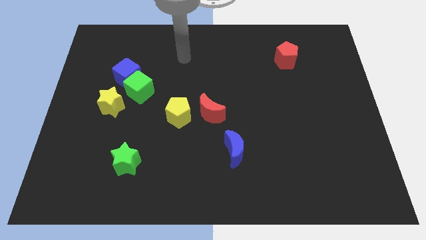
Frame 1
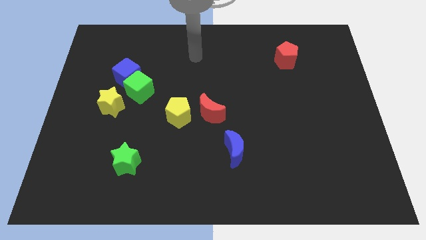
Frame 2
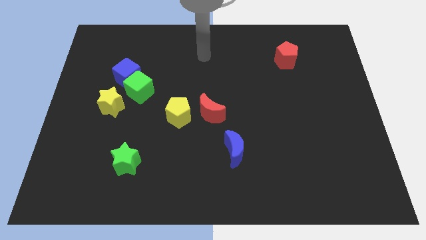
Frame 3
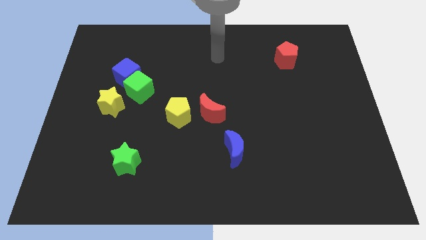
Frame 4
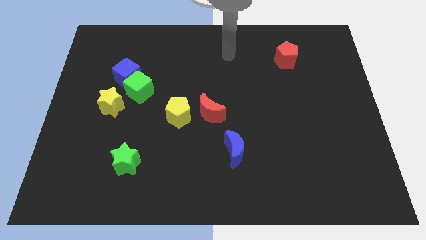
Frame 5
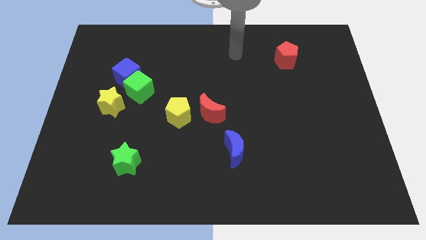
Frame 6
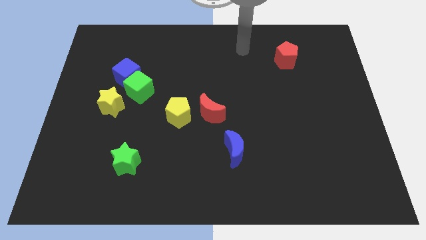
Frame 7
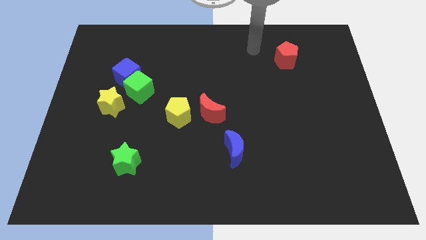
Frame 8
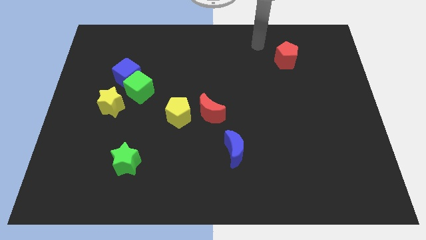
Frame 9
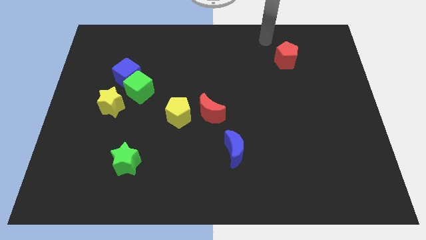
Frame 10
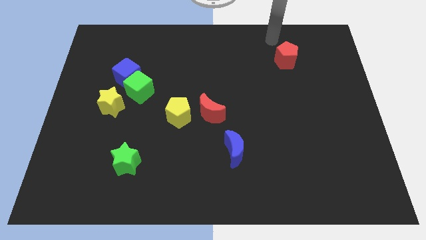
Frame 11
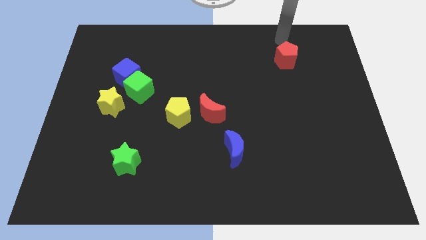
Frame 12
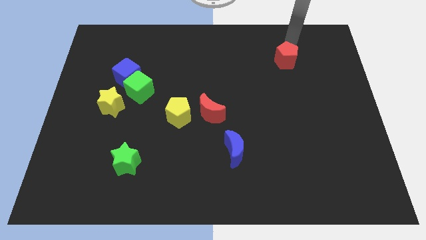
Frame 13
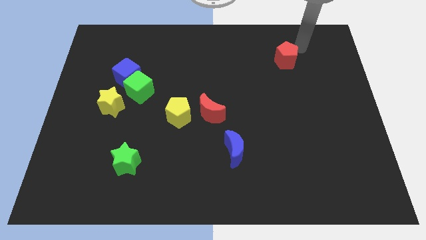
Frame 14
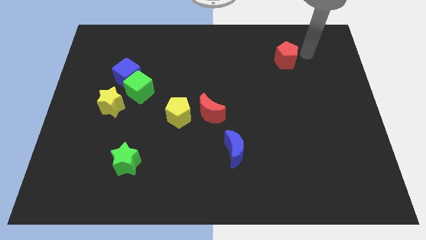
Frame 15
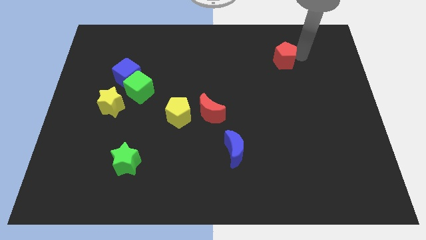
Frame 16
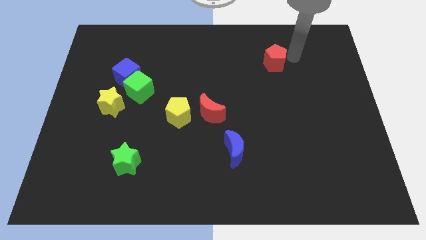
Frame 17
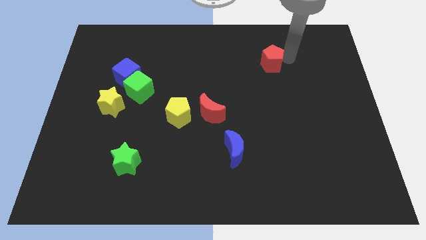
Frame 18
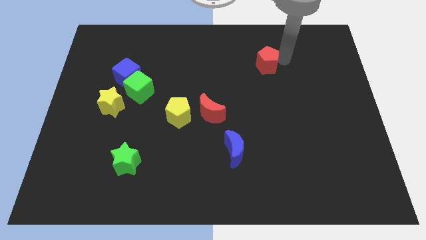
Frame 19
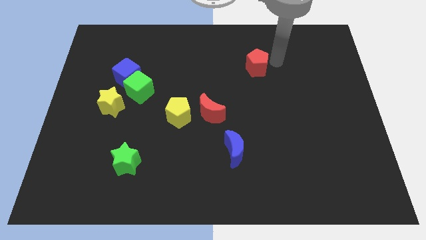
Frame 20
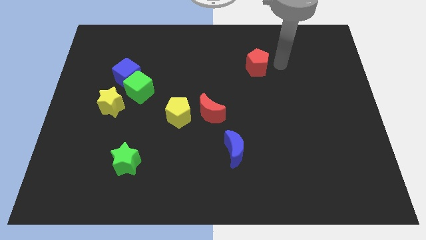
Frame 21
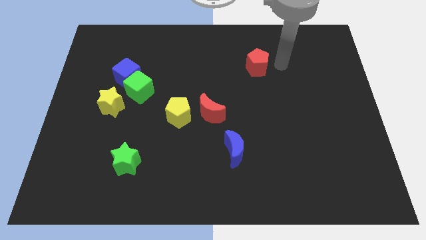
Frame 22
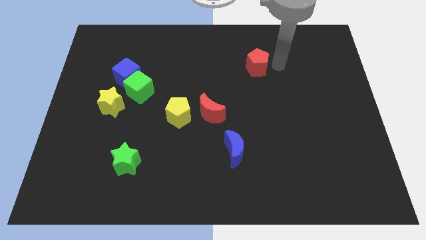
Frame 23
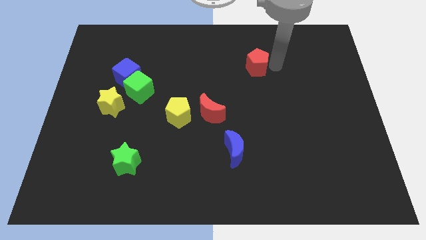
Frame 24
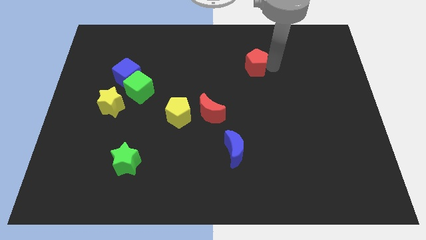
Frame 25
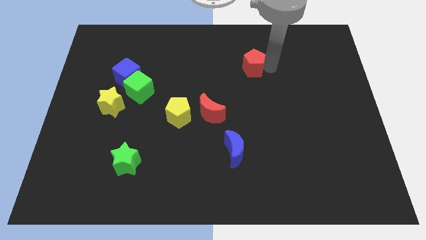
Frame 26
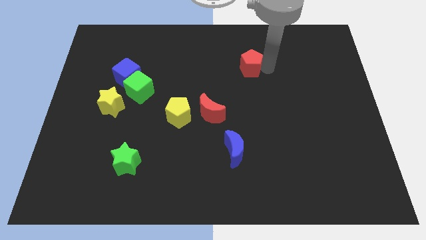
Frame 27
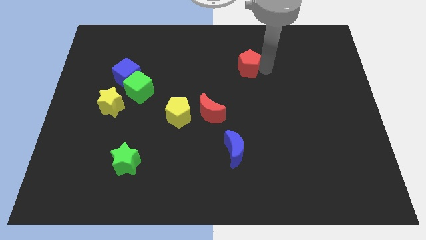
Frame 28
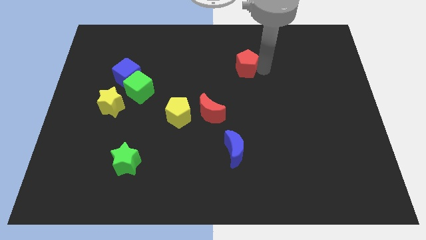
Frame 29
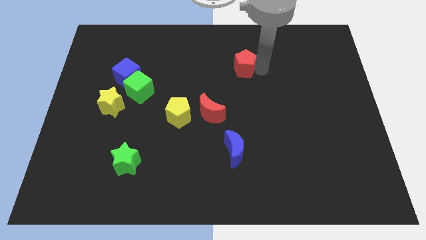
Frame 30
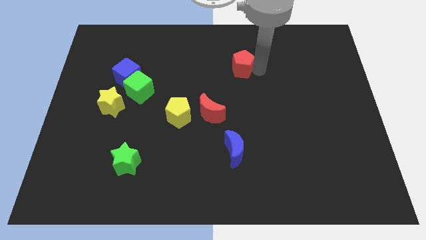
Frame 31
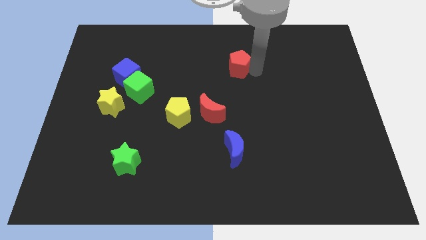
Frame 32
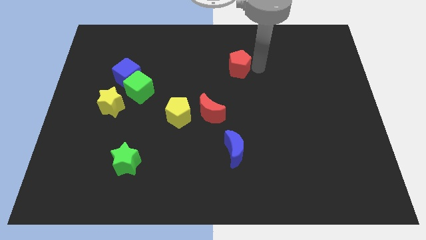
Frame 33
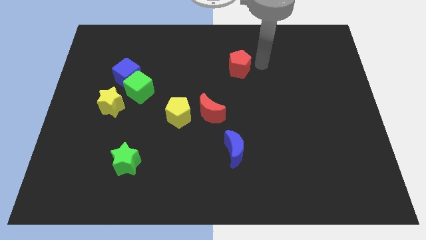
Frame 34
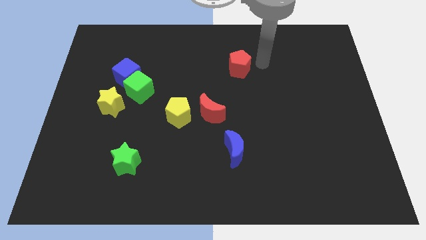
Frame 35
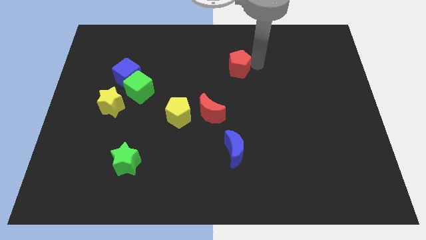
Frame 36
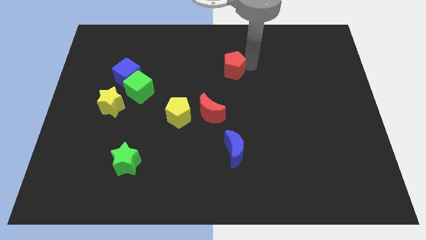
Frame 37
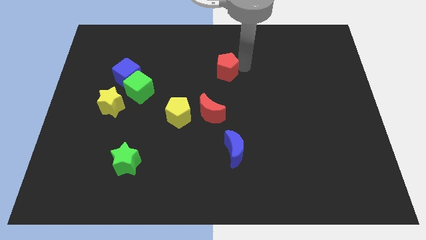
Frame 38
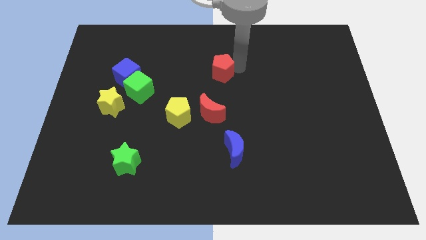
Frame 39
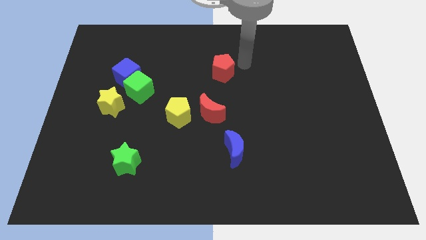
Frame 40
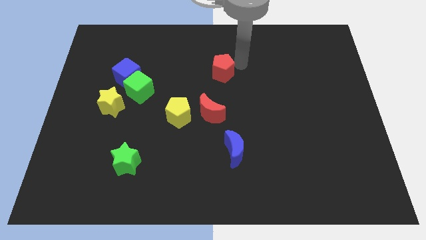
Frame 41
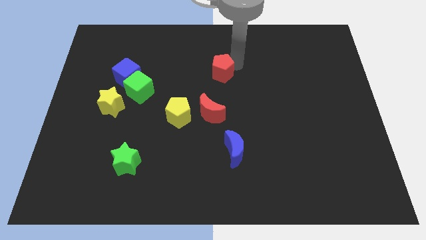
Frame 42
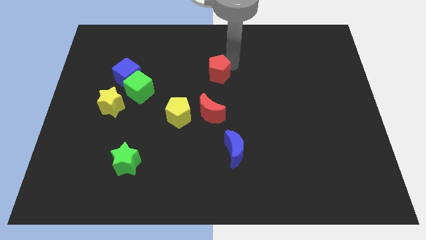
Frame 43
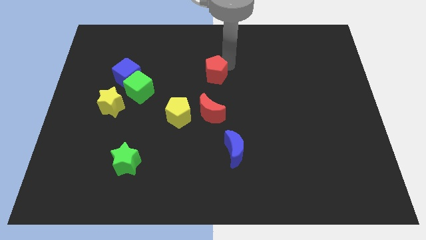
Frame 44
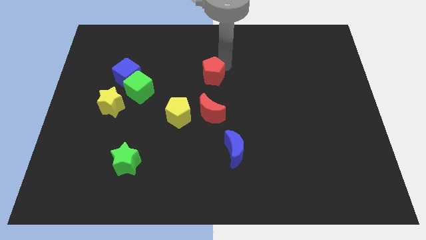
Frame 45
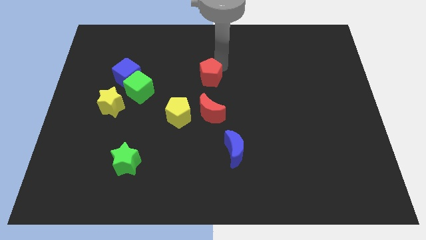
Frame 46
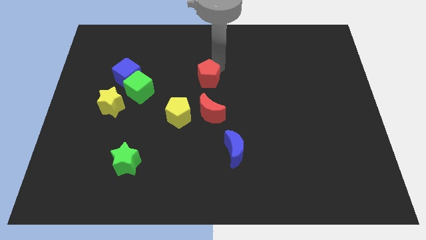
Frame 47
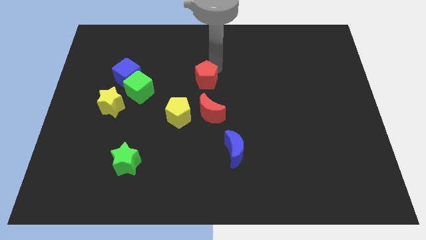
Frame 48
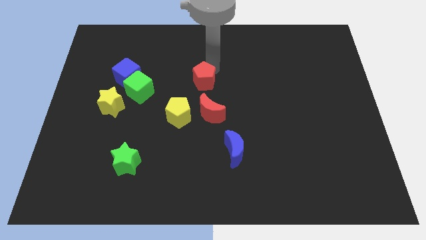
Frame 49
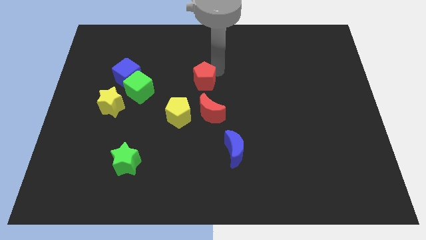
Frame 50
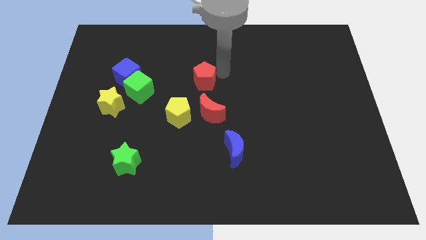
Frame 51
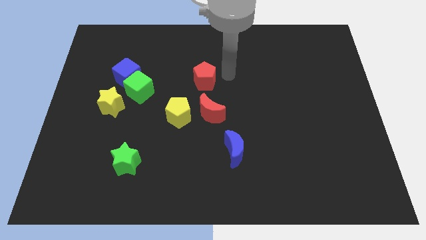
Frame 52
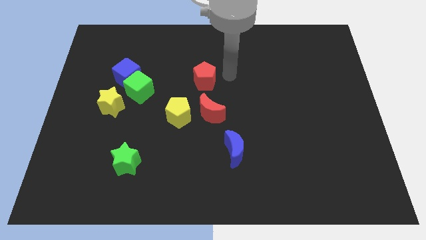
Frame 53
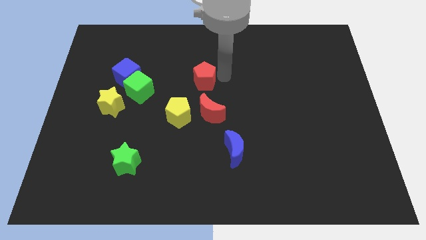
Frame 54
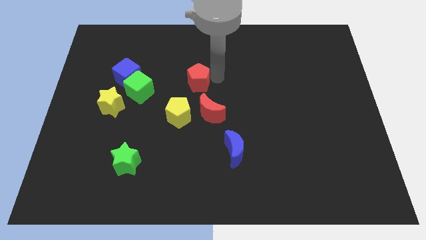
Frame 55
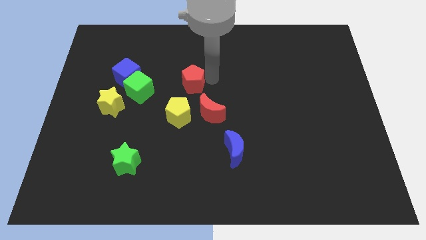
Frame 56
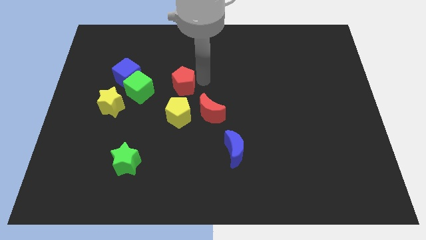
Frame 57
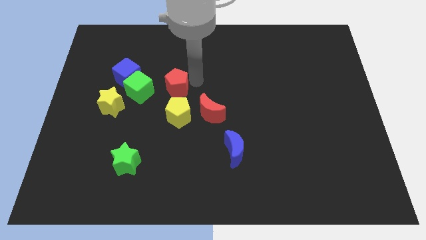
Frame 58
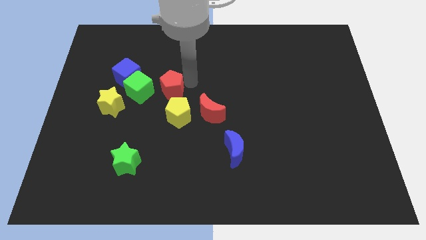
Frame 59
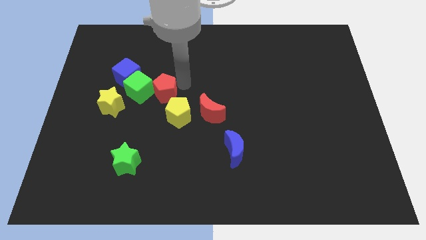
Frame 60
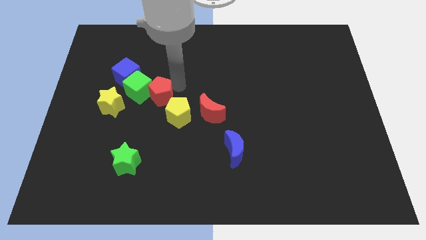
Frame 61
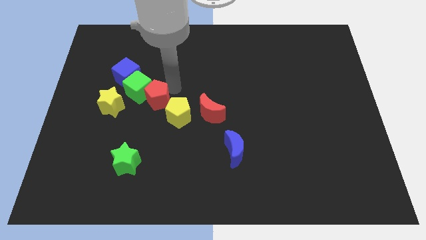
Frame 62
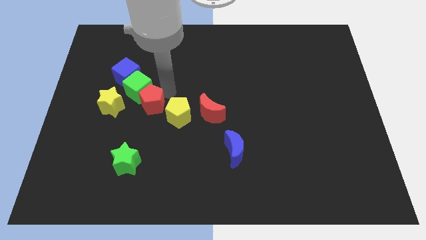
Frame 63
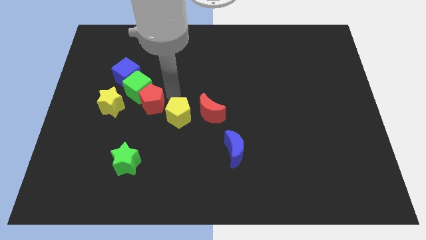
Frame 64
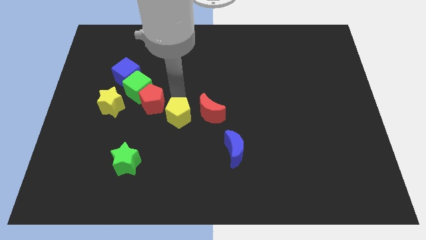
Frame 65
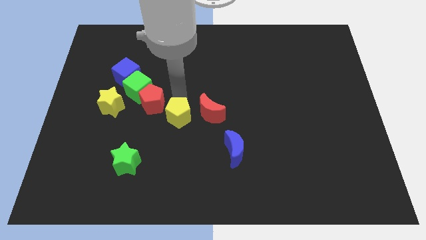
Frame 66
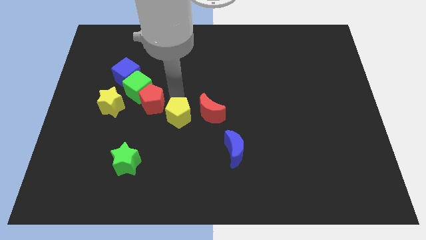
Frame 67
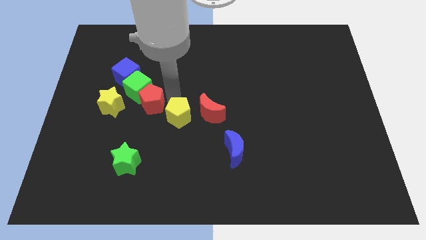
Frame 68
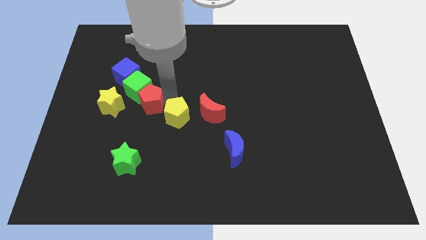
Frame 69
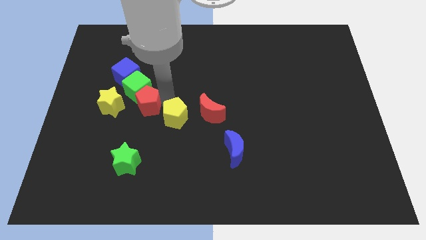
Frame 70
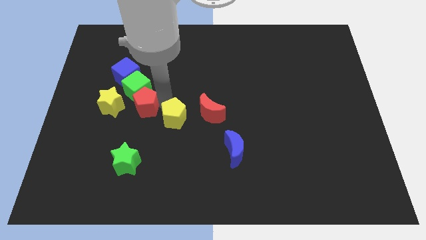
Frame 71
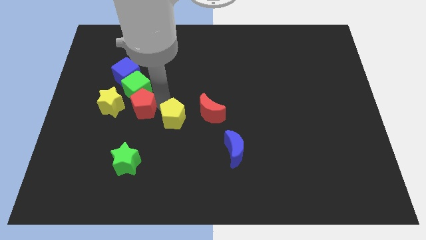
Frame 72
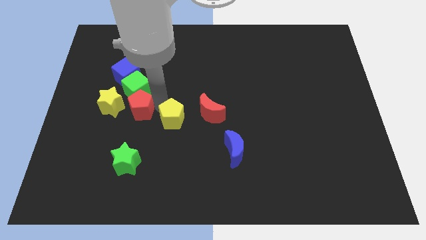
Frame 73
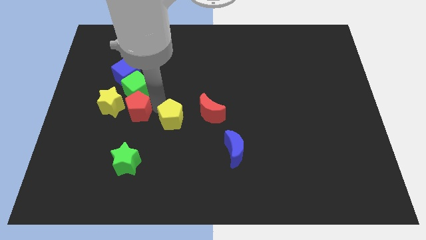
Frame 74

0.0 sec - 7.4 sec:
push the red pentagon to the yellow star

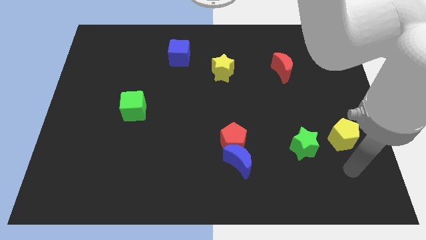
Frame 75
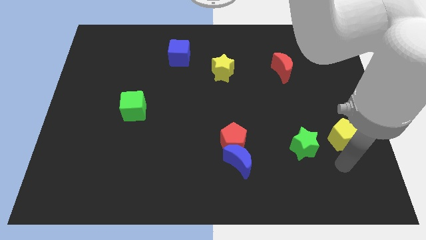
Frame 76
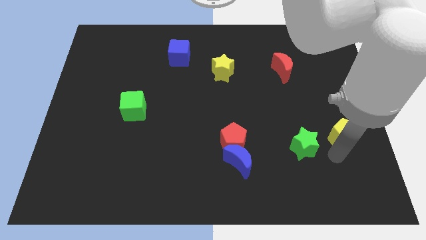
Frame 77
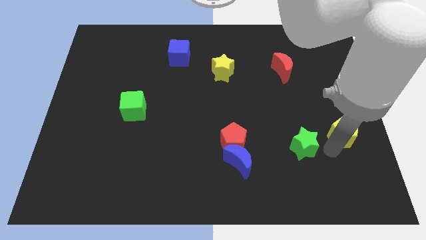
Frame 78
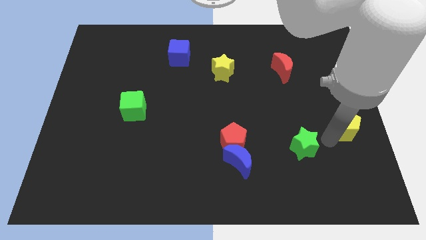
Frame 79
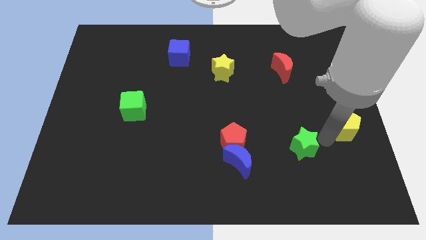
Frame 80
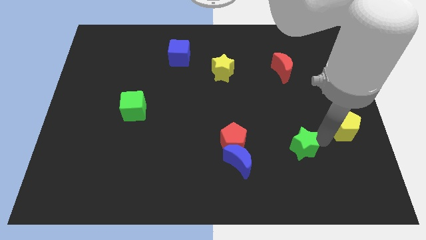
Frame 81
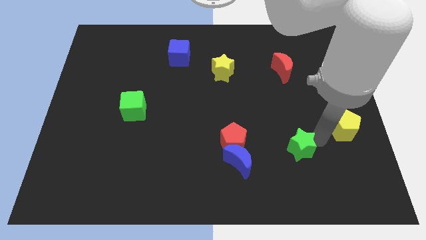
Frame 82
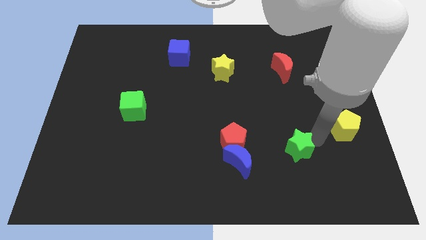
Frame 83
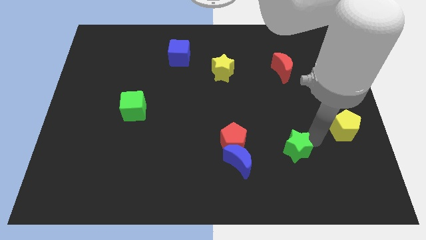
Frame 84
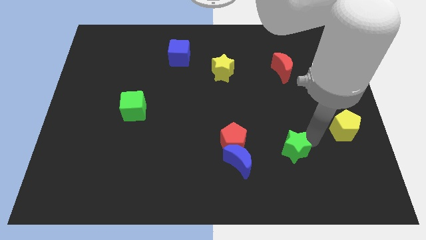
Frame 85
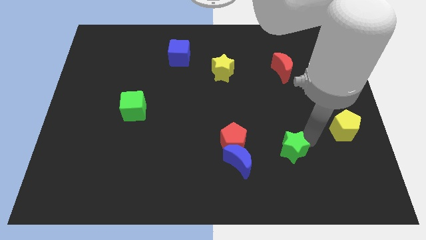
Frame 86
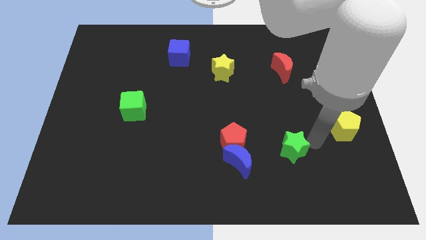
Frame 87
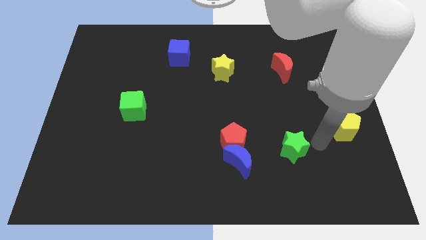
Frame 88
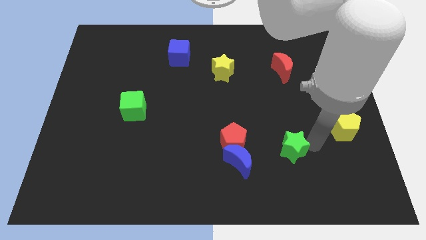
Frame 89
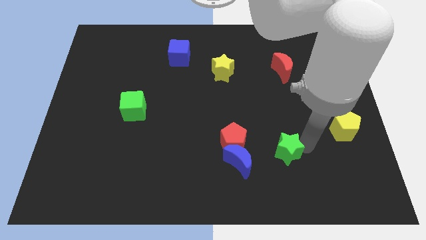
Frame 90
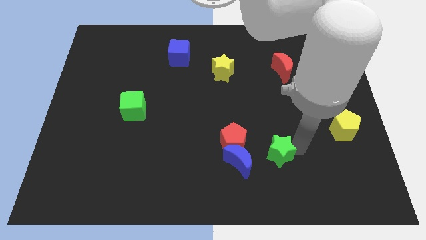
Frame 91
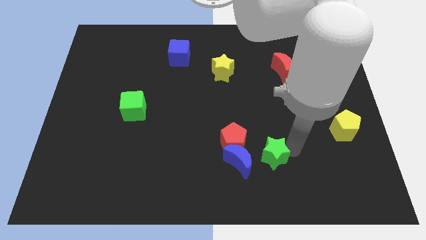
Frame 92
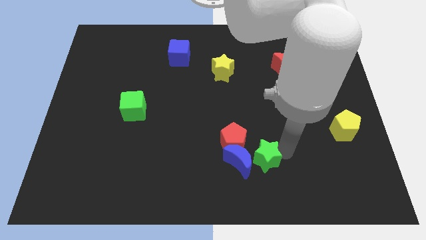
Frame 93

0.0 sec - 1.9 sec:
move the green star towards the blue moon
